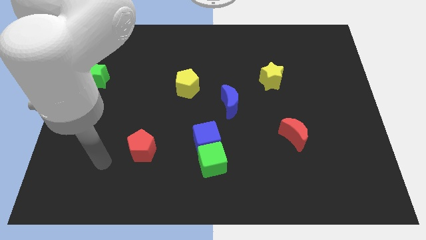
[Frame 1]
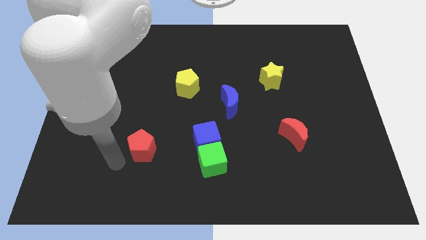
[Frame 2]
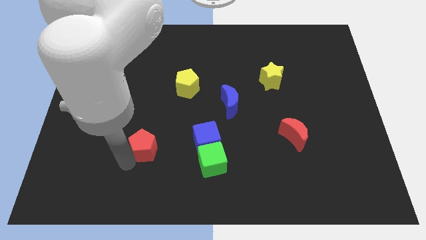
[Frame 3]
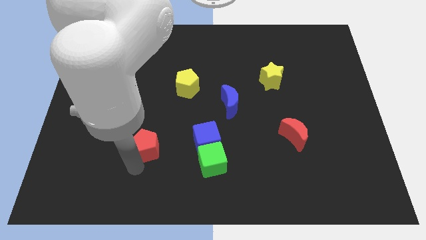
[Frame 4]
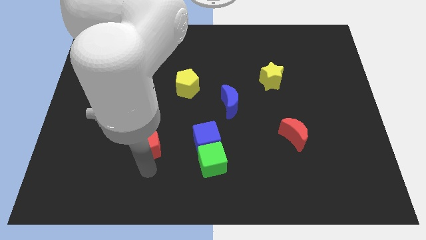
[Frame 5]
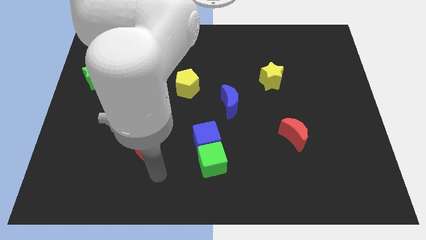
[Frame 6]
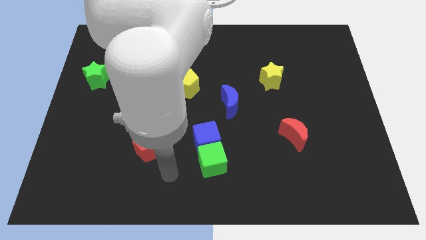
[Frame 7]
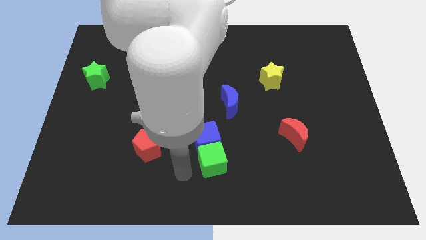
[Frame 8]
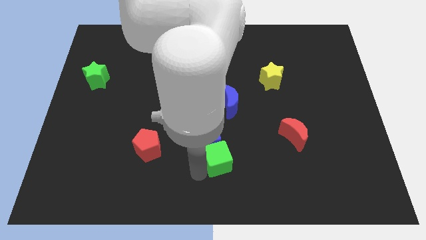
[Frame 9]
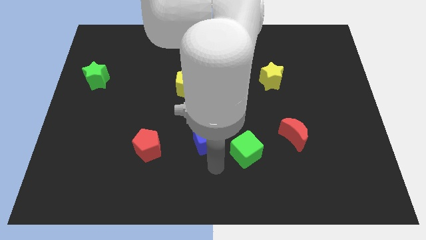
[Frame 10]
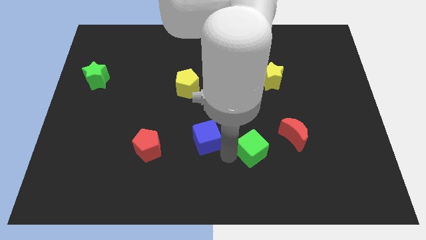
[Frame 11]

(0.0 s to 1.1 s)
separate the blue cube from the green cube

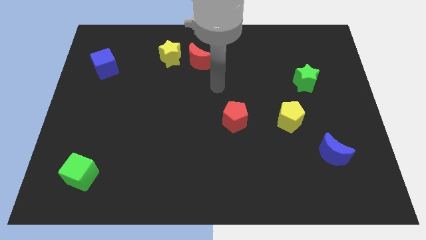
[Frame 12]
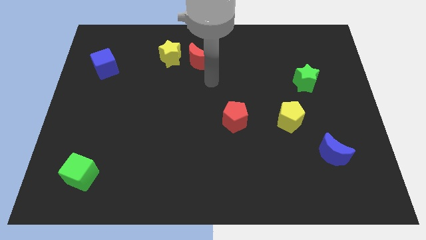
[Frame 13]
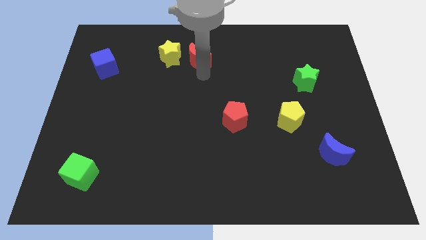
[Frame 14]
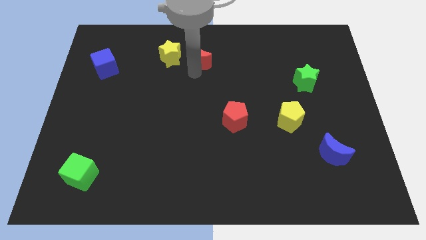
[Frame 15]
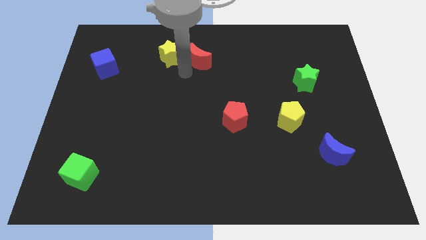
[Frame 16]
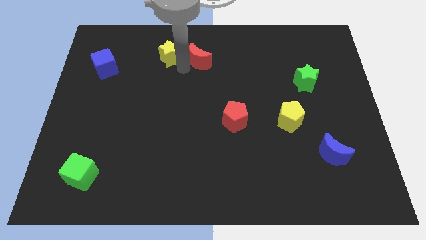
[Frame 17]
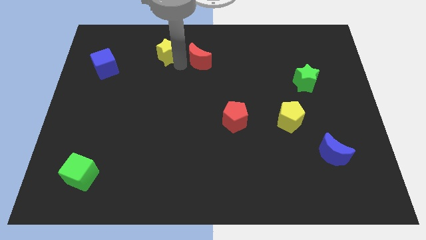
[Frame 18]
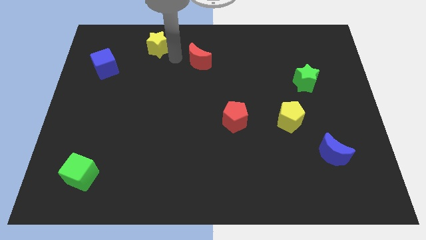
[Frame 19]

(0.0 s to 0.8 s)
pull the red moon apart from the yellow star

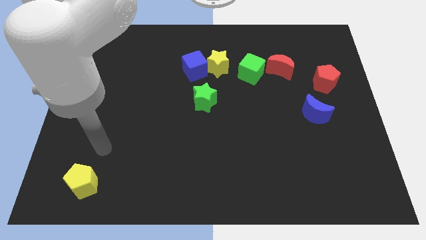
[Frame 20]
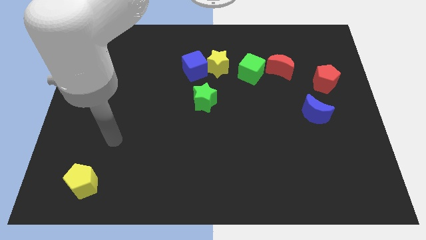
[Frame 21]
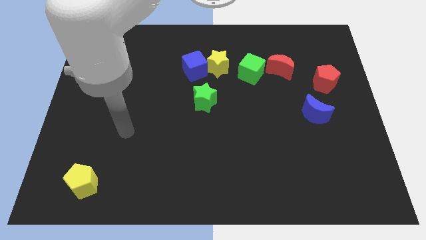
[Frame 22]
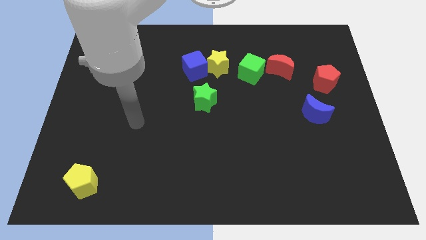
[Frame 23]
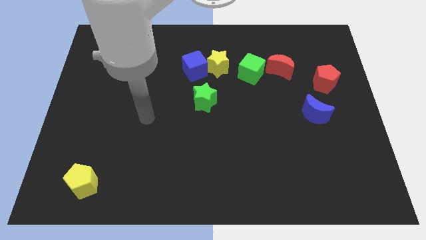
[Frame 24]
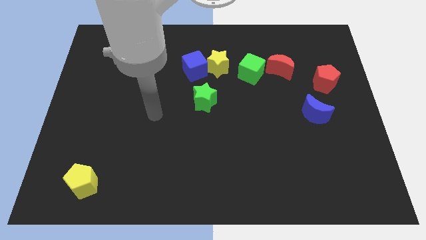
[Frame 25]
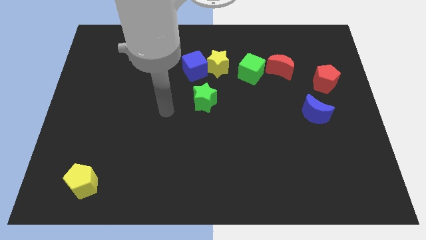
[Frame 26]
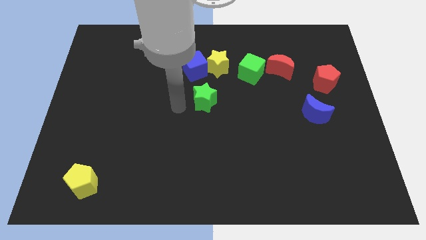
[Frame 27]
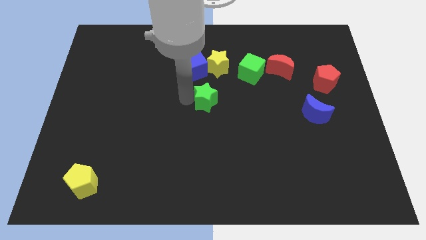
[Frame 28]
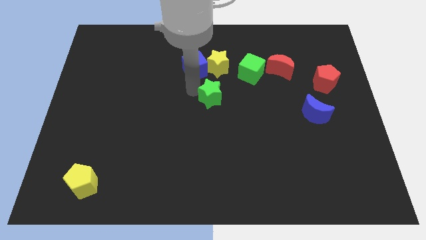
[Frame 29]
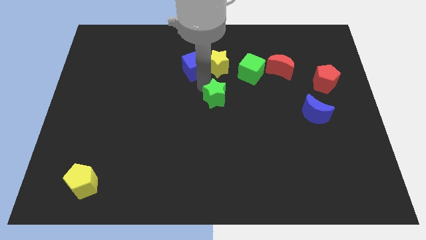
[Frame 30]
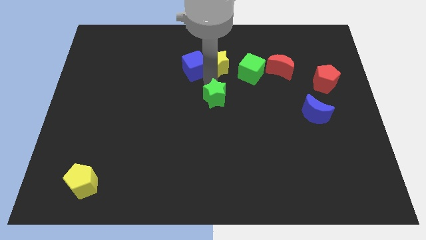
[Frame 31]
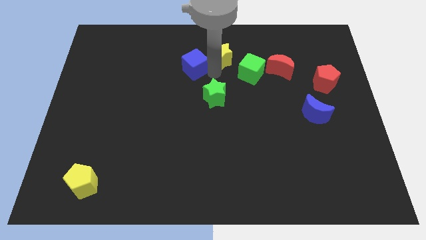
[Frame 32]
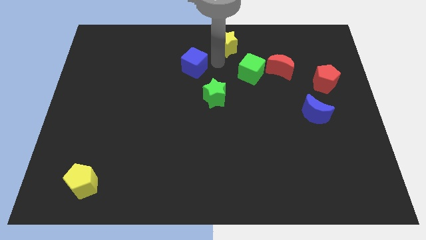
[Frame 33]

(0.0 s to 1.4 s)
pull the blue cube apart from the yellow star

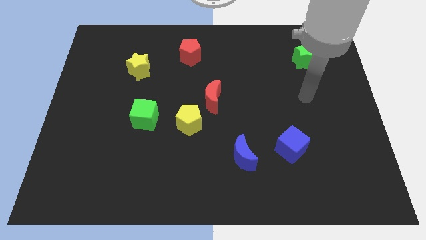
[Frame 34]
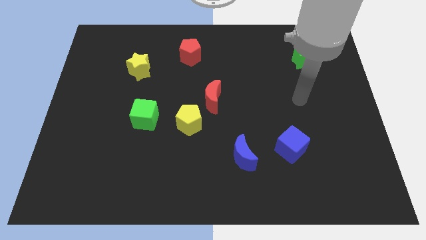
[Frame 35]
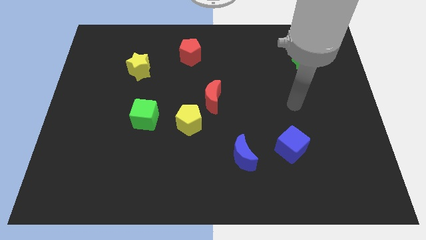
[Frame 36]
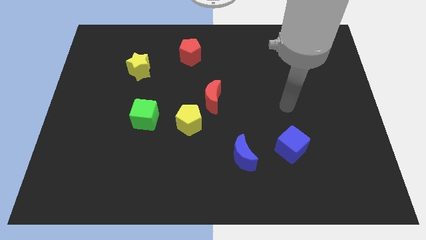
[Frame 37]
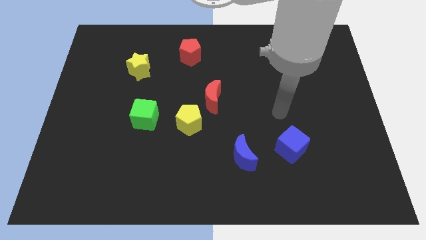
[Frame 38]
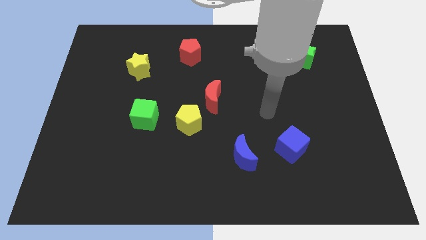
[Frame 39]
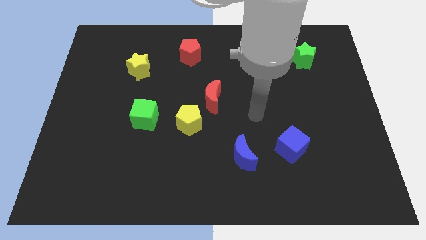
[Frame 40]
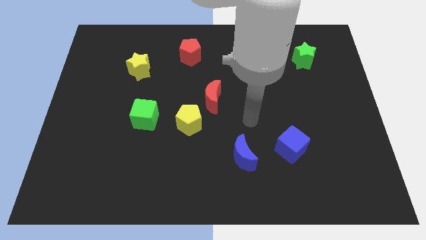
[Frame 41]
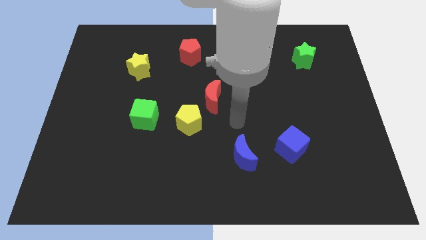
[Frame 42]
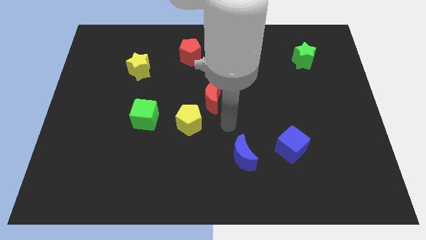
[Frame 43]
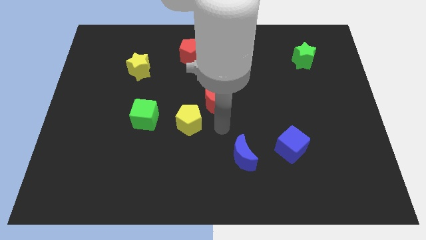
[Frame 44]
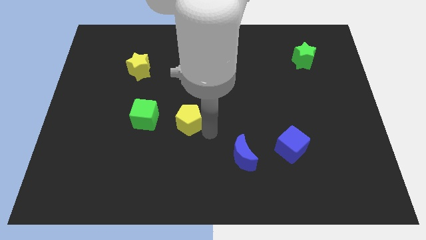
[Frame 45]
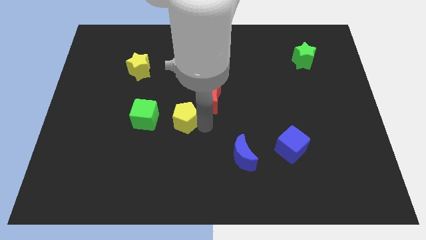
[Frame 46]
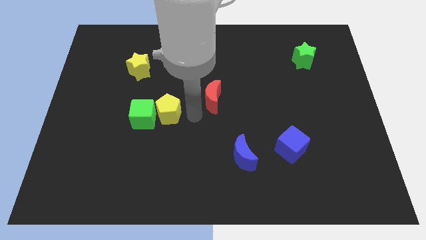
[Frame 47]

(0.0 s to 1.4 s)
move the red moon away from the yellow pentagon

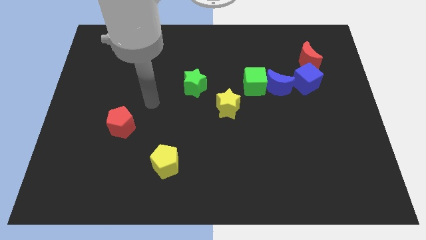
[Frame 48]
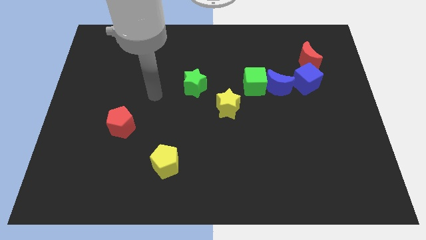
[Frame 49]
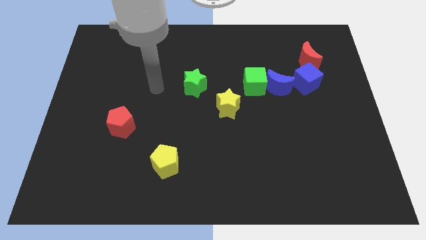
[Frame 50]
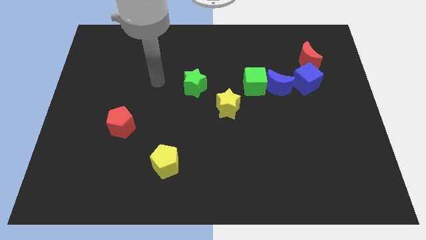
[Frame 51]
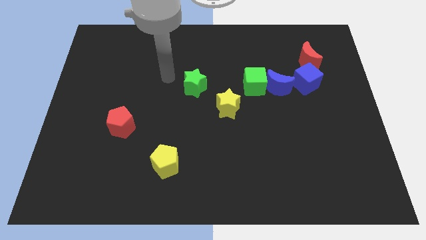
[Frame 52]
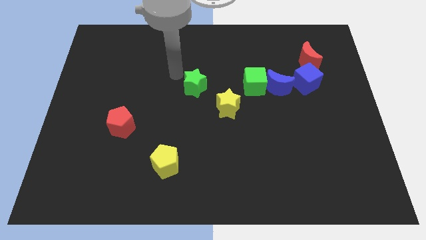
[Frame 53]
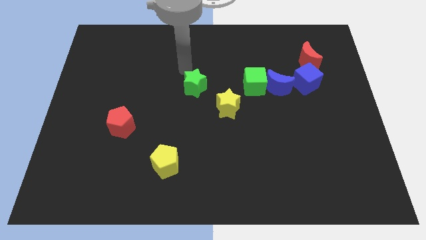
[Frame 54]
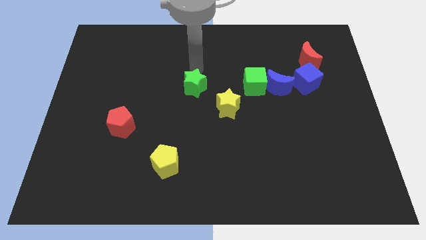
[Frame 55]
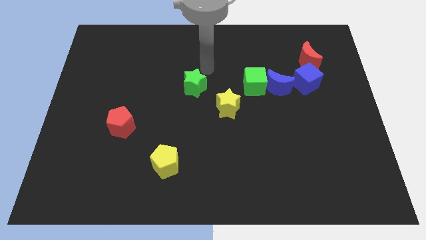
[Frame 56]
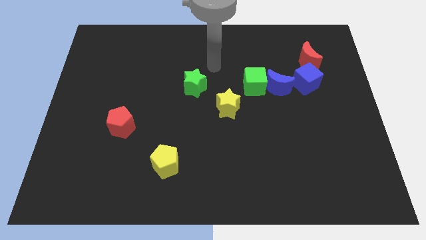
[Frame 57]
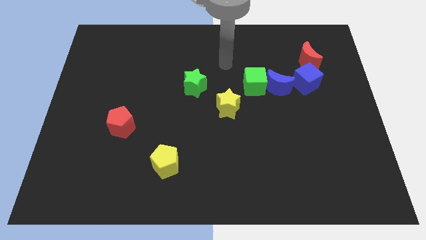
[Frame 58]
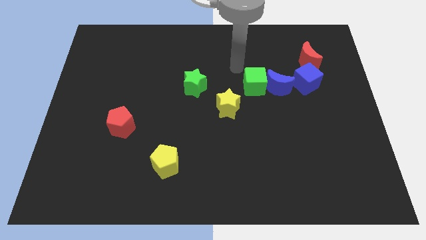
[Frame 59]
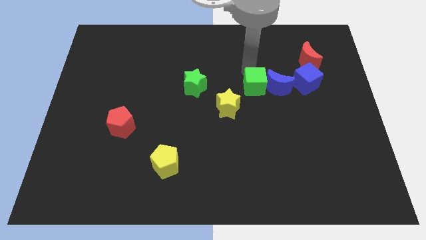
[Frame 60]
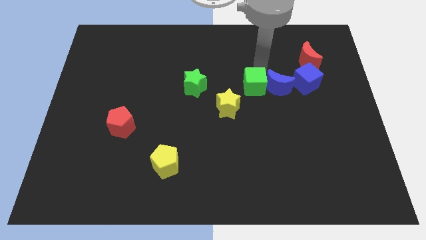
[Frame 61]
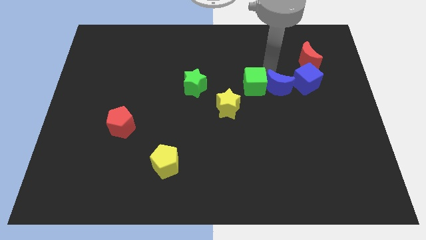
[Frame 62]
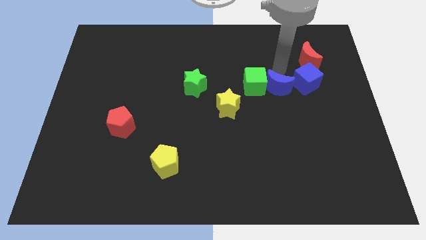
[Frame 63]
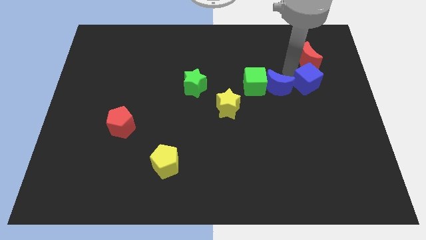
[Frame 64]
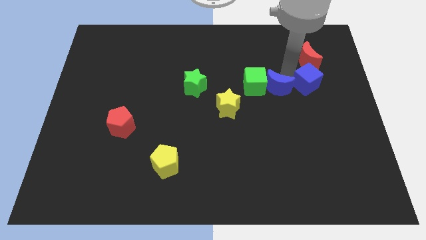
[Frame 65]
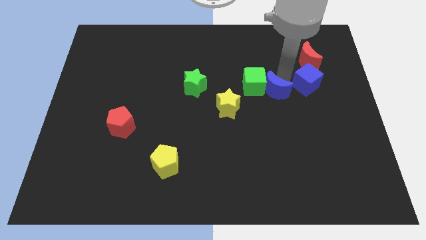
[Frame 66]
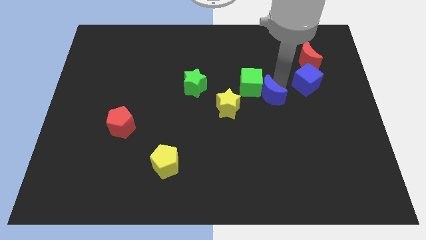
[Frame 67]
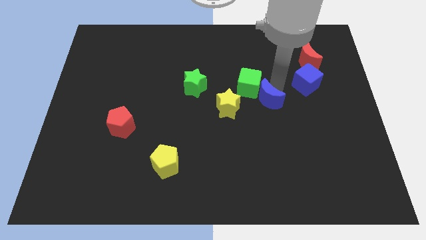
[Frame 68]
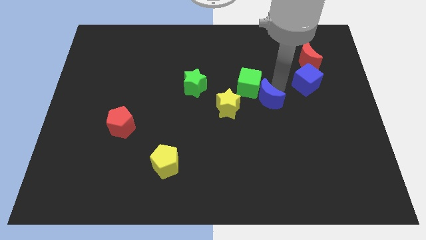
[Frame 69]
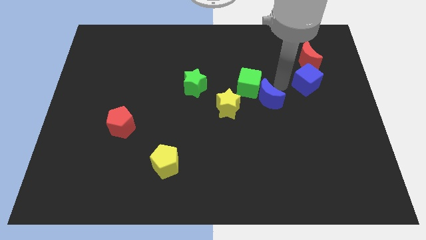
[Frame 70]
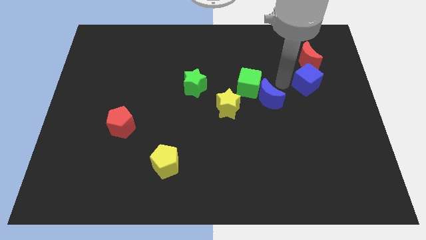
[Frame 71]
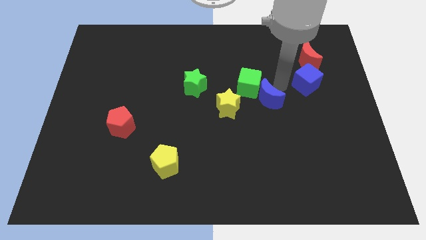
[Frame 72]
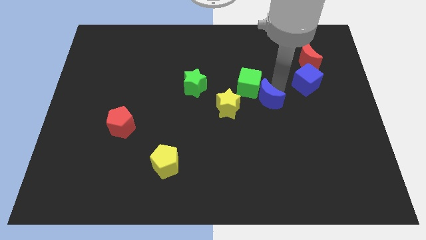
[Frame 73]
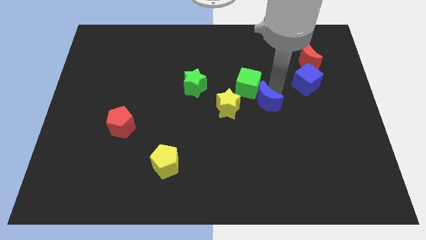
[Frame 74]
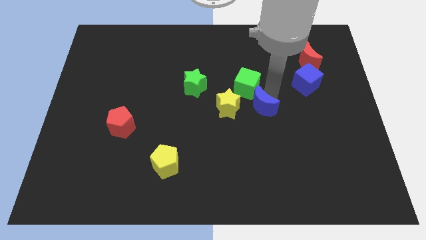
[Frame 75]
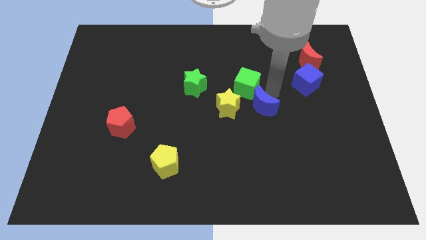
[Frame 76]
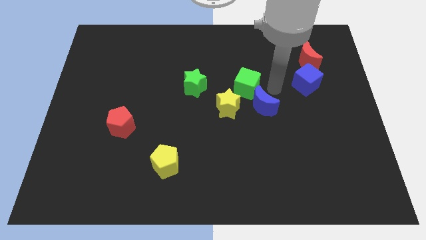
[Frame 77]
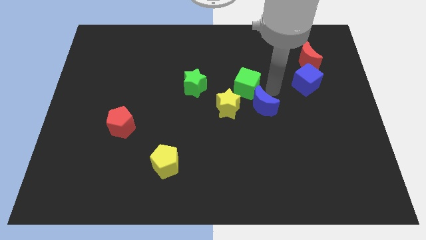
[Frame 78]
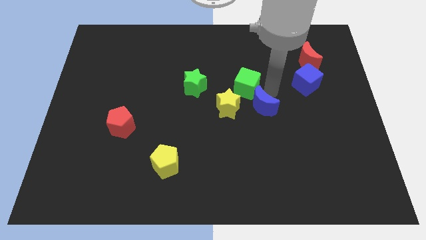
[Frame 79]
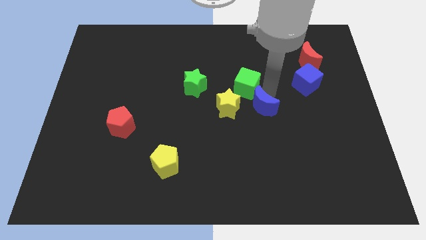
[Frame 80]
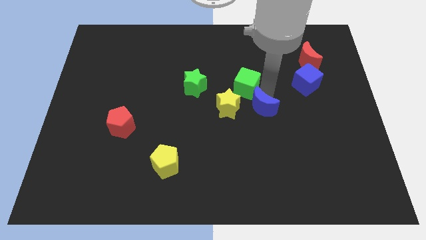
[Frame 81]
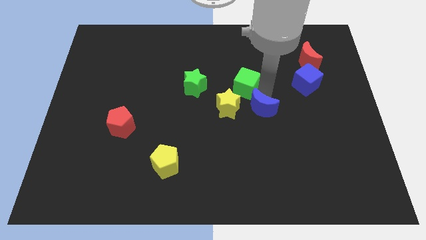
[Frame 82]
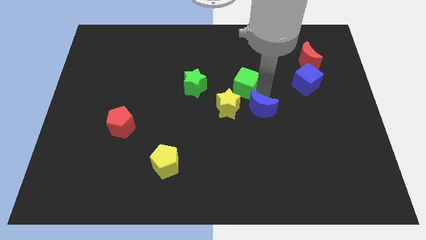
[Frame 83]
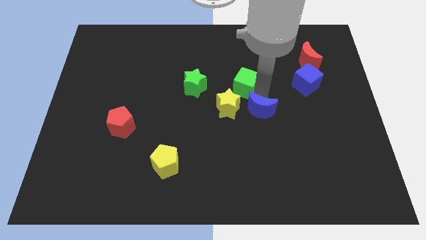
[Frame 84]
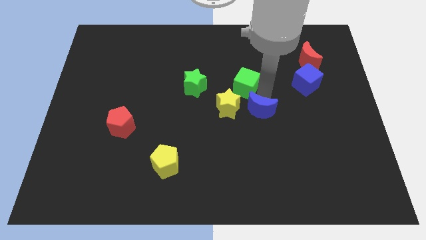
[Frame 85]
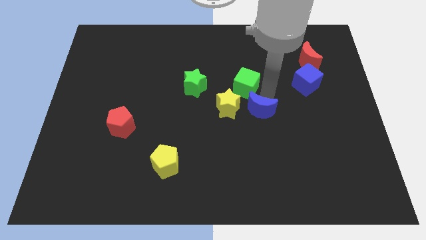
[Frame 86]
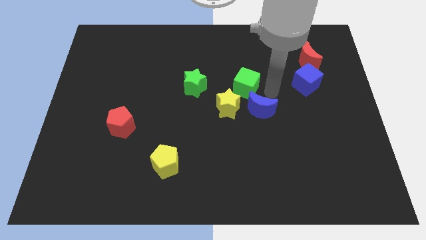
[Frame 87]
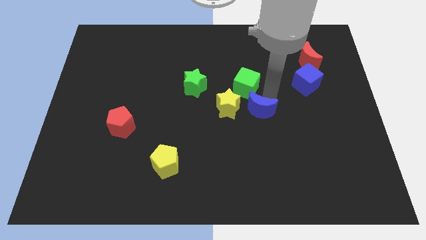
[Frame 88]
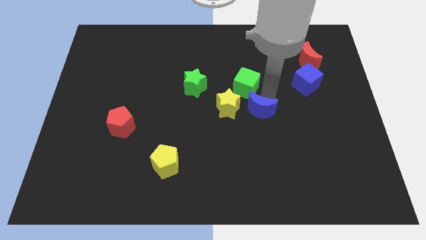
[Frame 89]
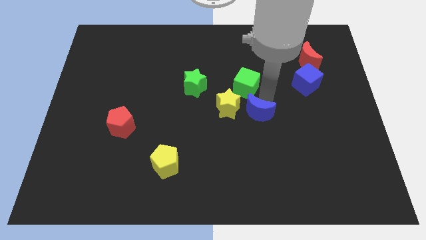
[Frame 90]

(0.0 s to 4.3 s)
move the blue moon away from the green cube and blue cube

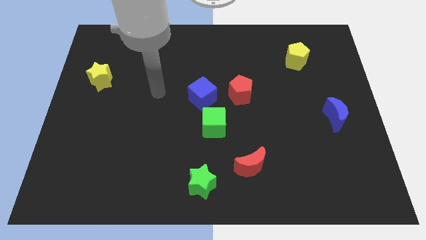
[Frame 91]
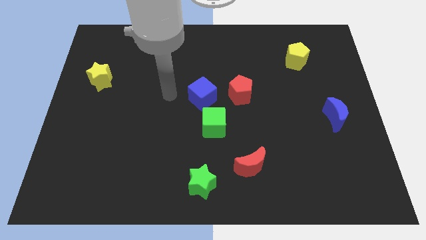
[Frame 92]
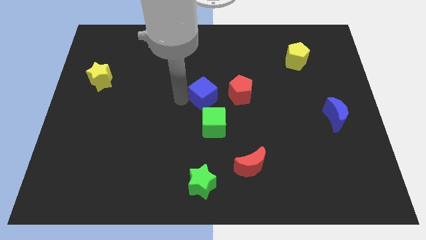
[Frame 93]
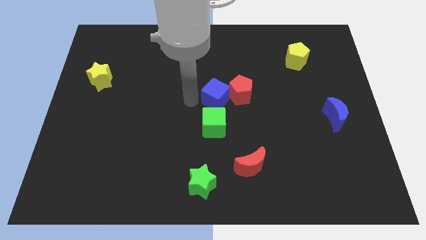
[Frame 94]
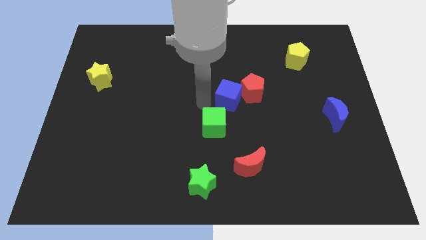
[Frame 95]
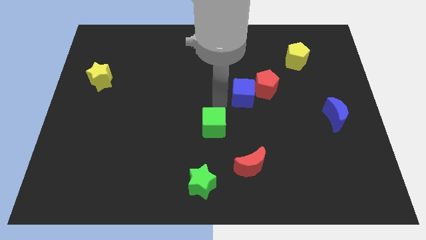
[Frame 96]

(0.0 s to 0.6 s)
move the green cube away from the blue cube
